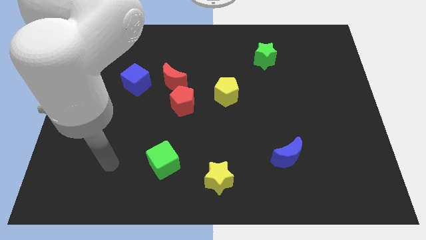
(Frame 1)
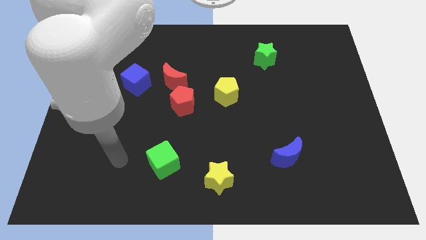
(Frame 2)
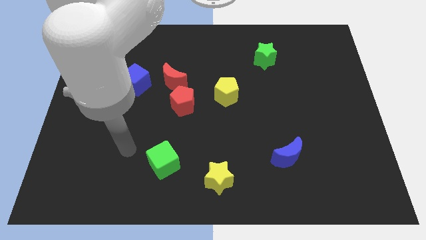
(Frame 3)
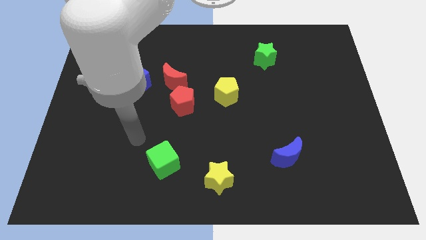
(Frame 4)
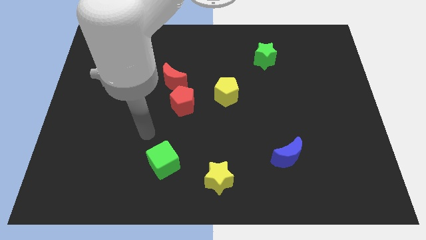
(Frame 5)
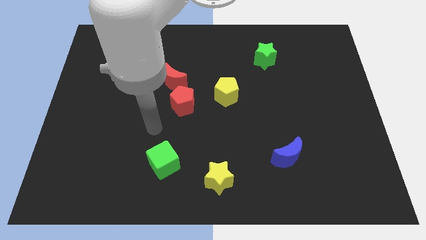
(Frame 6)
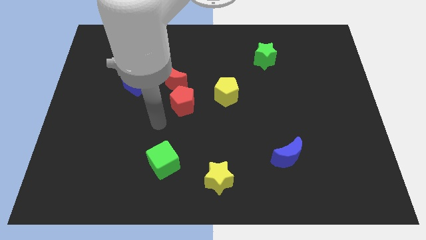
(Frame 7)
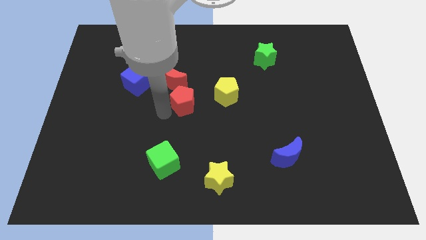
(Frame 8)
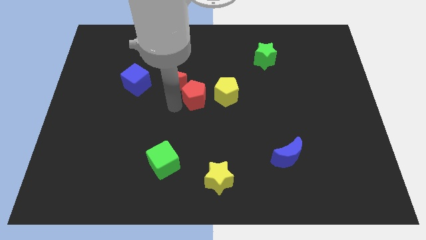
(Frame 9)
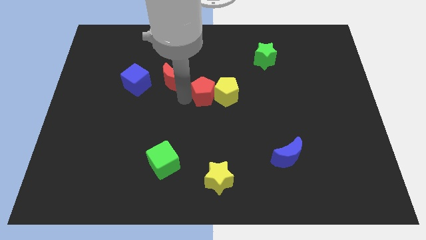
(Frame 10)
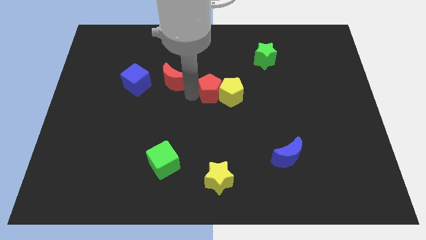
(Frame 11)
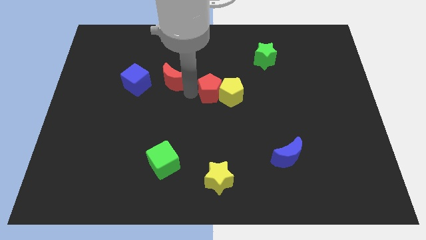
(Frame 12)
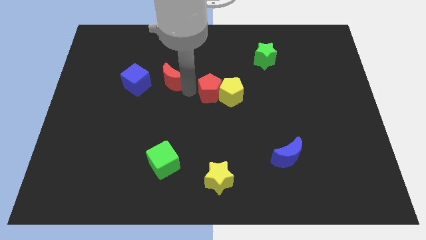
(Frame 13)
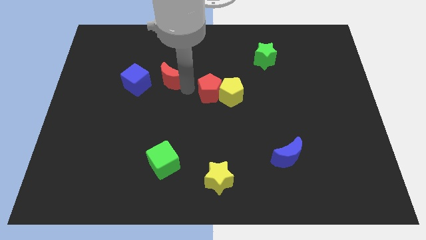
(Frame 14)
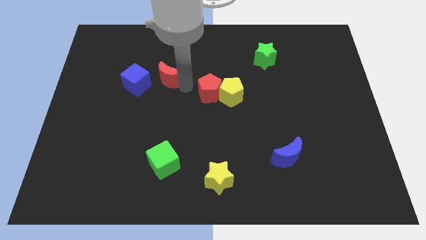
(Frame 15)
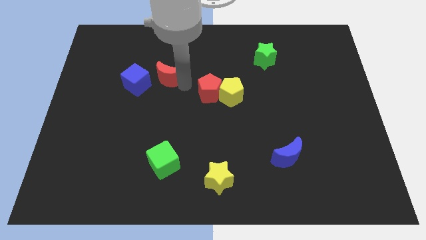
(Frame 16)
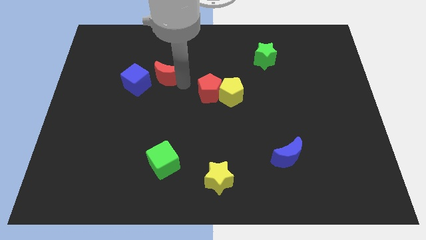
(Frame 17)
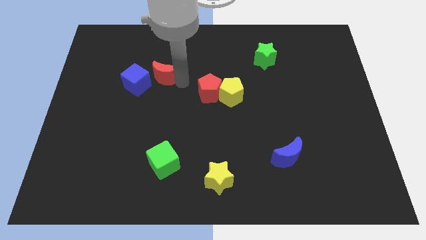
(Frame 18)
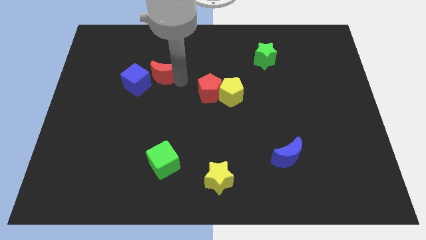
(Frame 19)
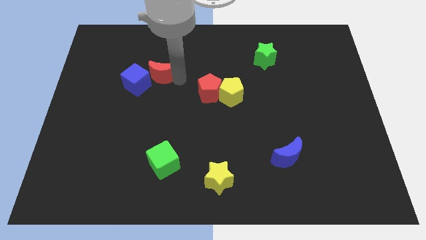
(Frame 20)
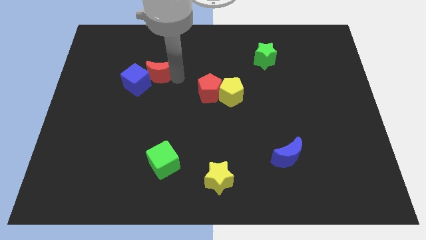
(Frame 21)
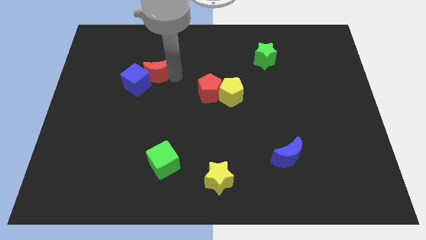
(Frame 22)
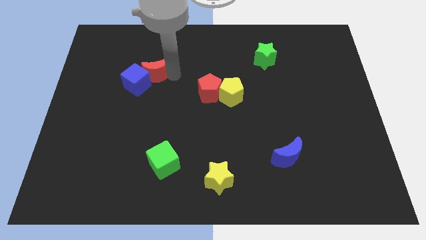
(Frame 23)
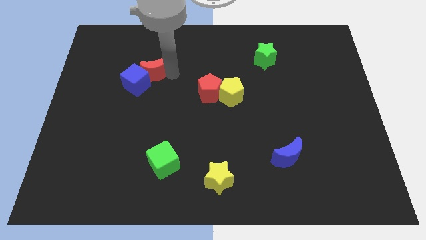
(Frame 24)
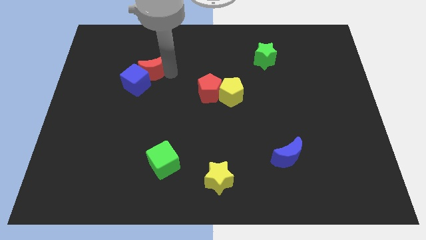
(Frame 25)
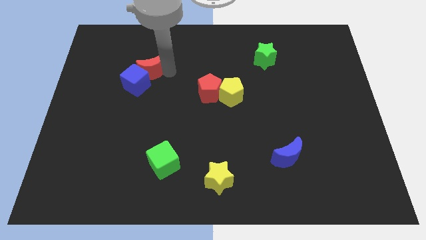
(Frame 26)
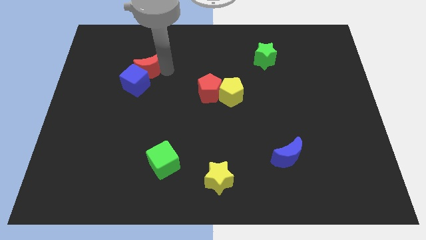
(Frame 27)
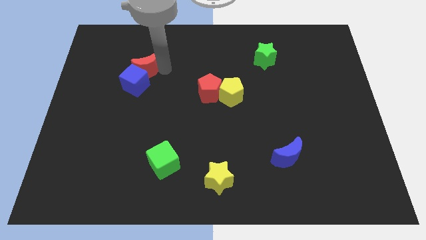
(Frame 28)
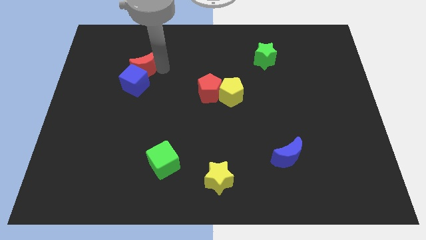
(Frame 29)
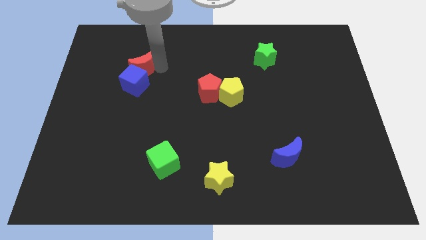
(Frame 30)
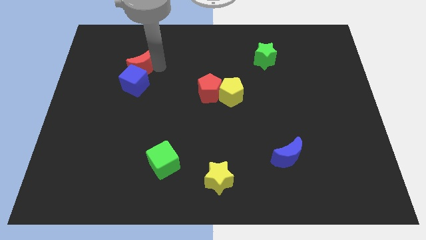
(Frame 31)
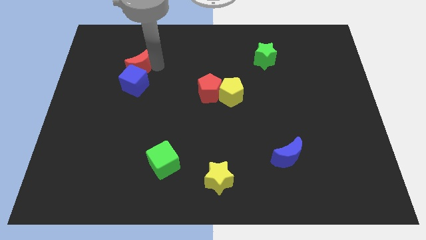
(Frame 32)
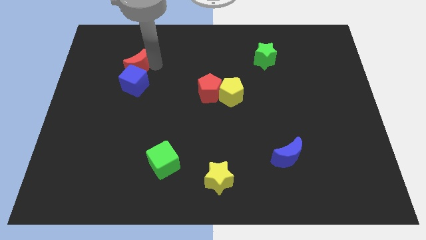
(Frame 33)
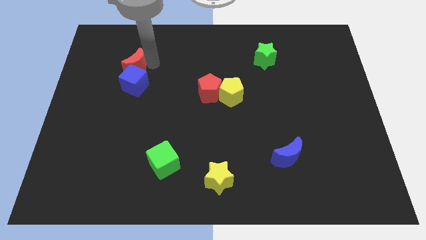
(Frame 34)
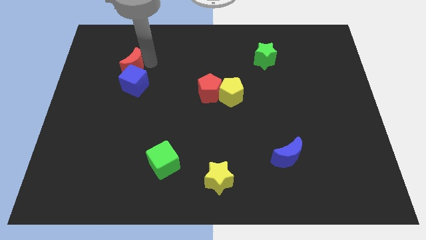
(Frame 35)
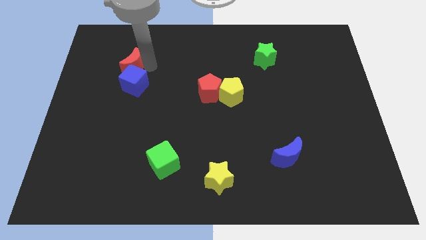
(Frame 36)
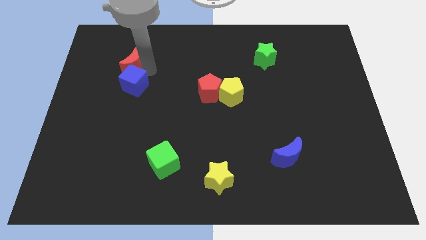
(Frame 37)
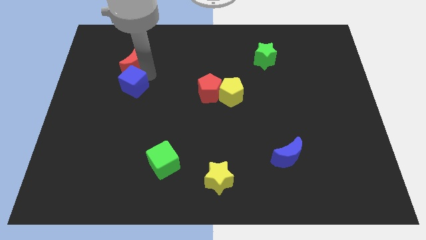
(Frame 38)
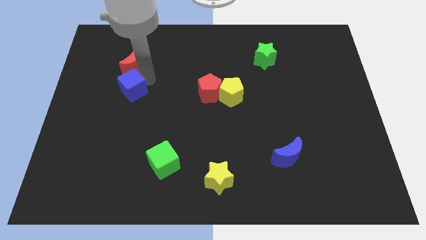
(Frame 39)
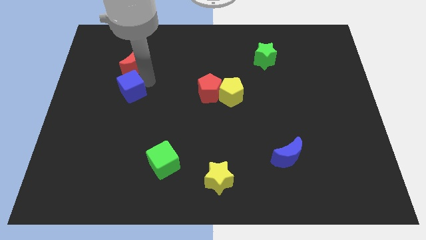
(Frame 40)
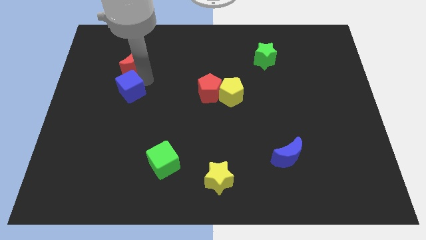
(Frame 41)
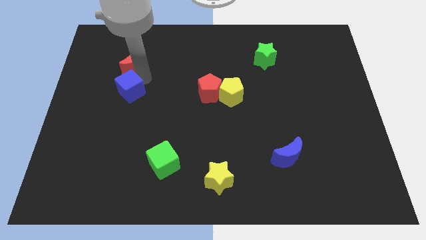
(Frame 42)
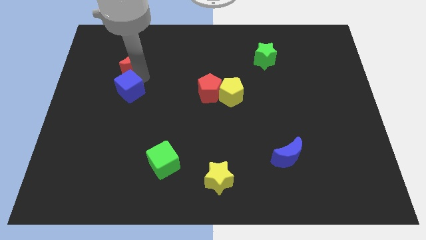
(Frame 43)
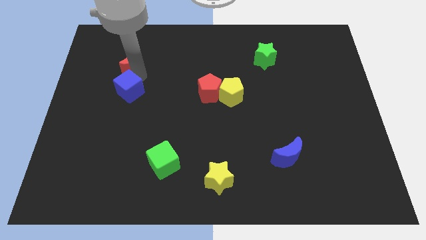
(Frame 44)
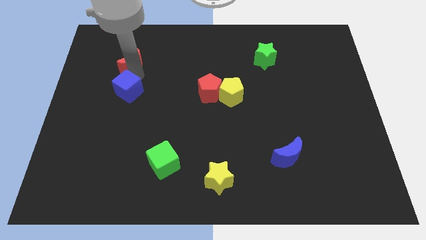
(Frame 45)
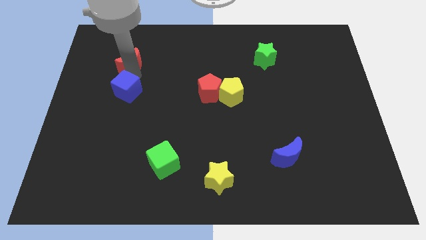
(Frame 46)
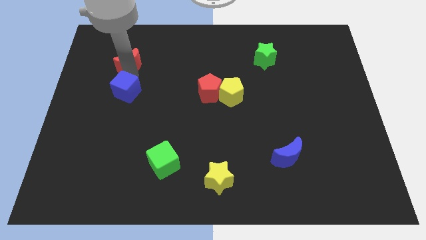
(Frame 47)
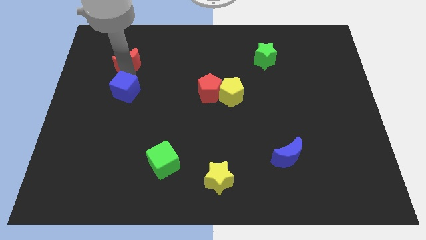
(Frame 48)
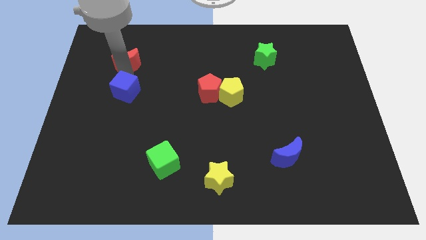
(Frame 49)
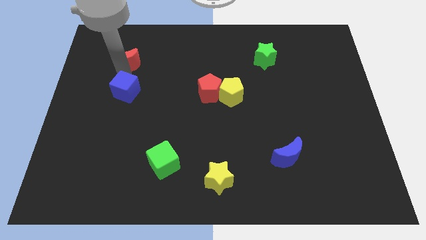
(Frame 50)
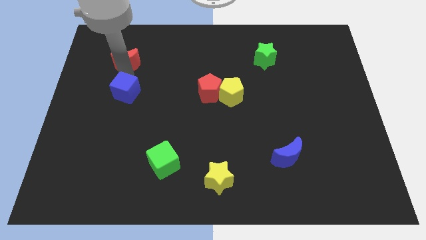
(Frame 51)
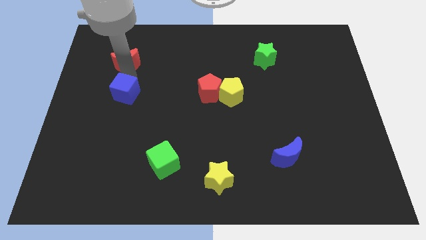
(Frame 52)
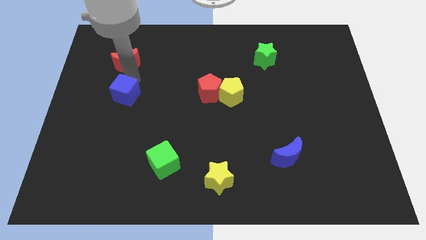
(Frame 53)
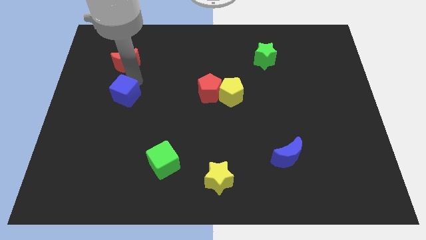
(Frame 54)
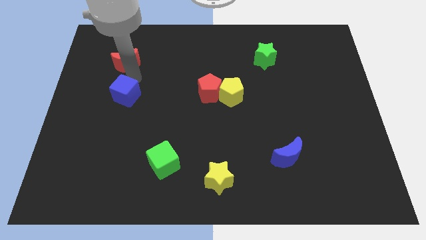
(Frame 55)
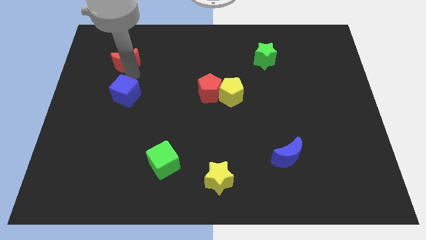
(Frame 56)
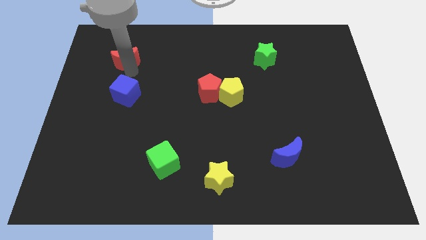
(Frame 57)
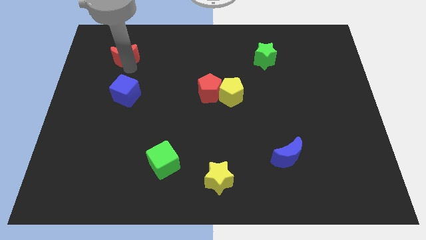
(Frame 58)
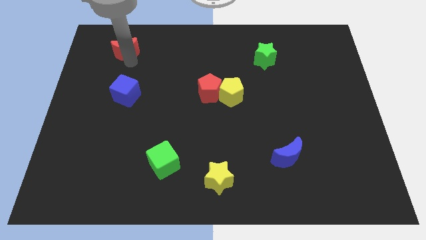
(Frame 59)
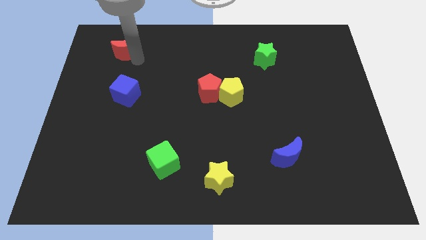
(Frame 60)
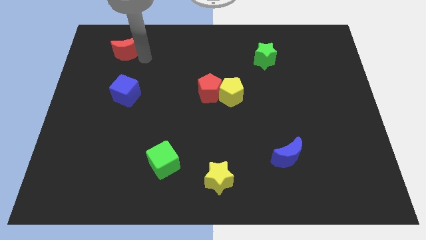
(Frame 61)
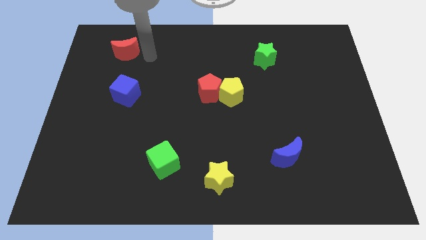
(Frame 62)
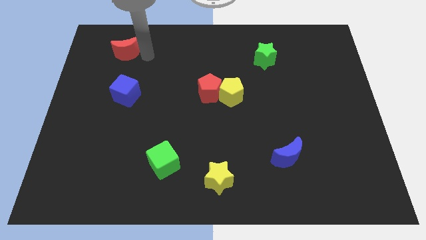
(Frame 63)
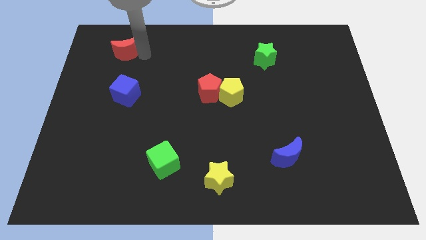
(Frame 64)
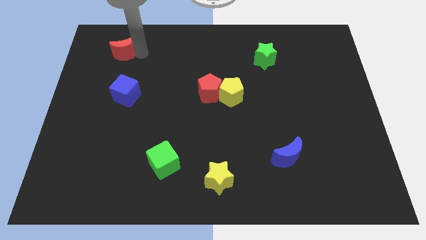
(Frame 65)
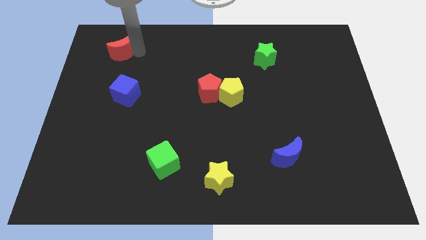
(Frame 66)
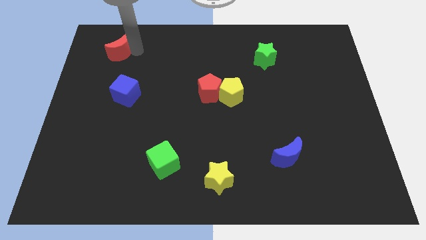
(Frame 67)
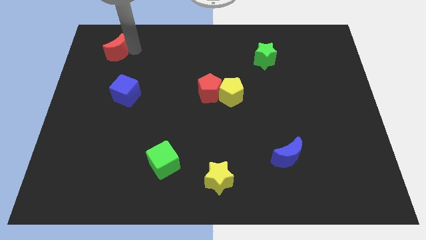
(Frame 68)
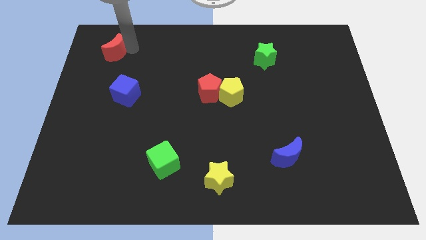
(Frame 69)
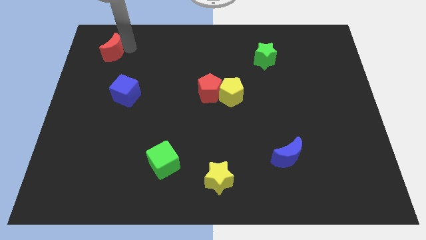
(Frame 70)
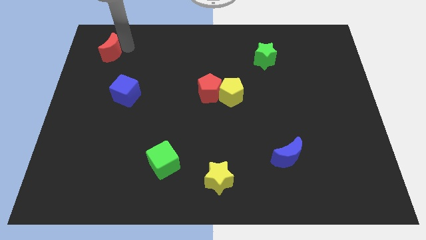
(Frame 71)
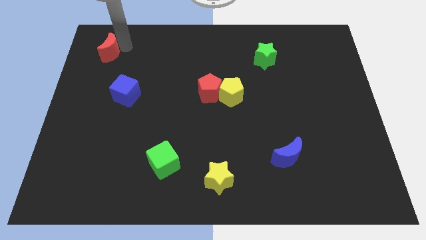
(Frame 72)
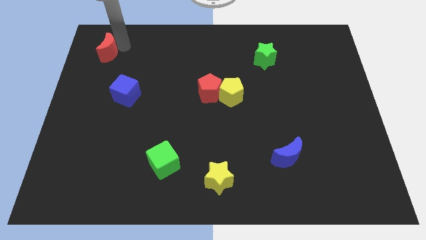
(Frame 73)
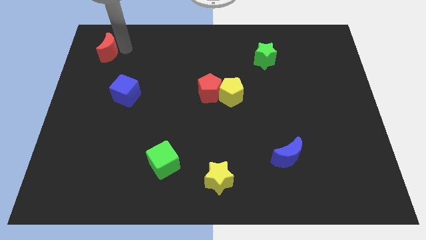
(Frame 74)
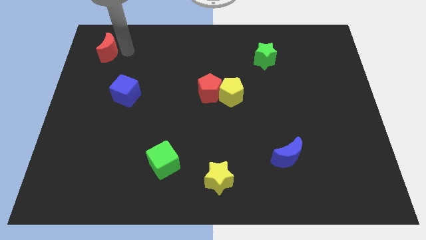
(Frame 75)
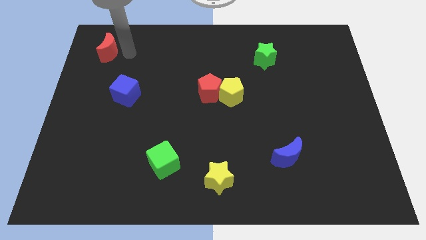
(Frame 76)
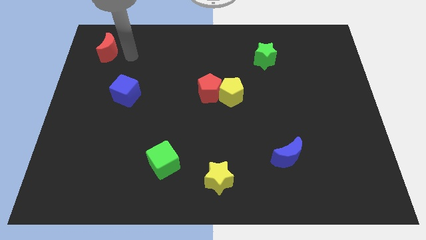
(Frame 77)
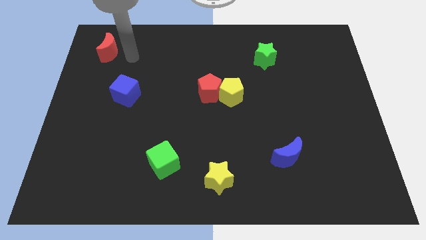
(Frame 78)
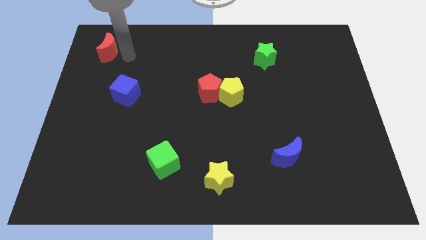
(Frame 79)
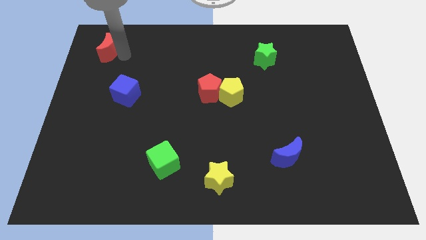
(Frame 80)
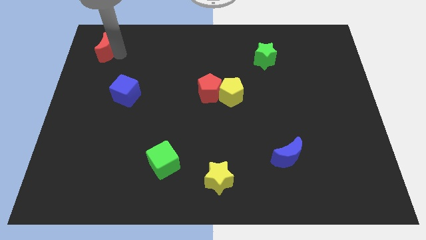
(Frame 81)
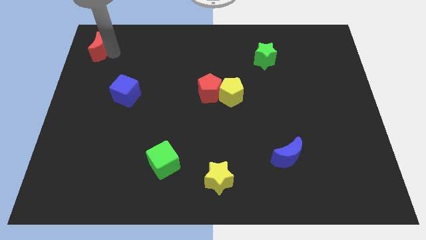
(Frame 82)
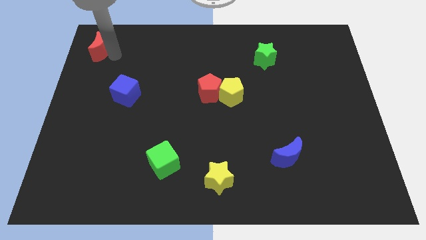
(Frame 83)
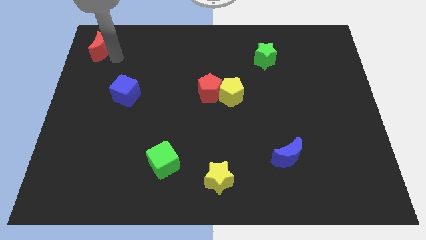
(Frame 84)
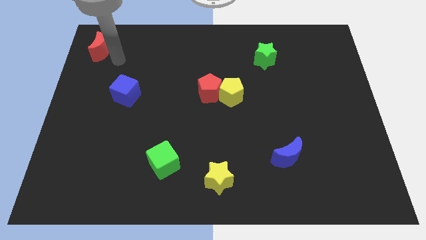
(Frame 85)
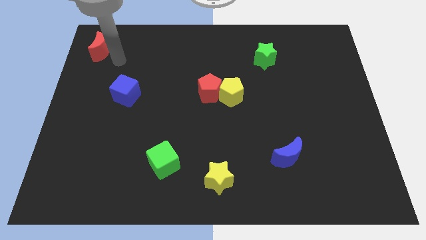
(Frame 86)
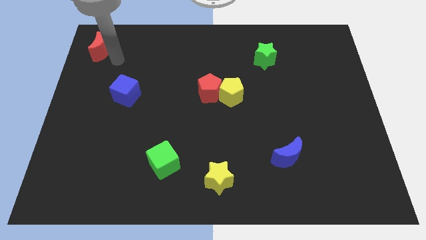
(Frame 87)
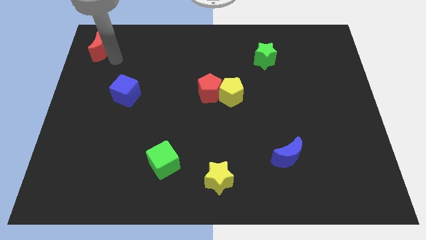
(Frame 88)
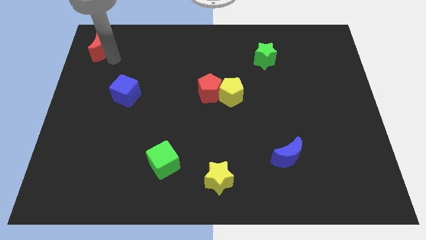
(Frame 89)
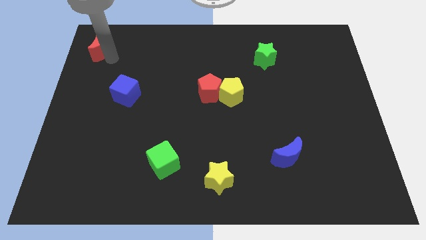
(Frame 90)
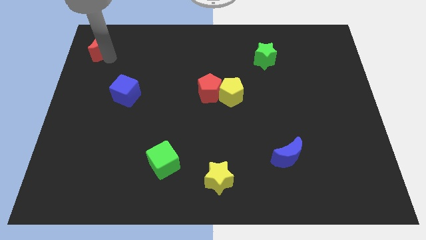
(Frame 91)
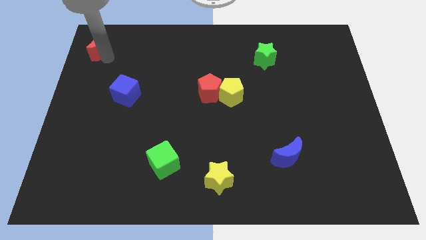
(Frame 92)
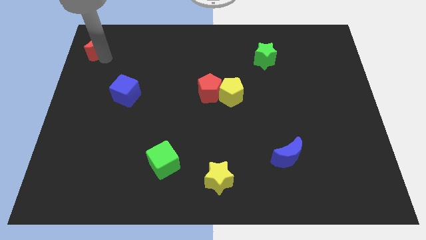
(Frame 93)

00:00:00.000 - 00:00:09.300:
slide the red moon to the top left of the board
